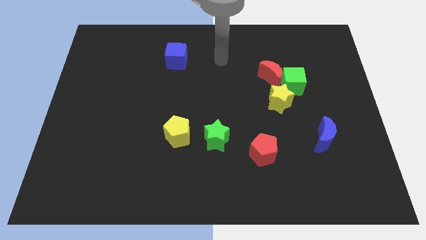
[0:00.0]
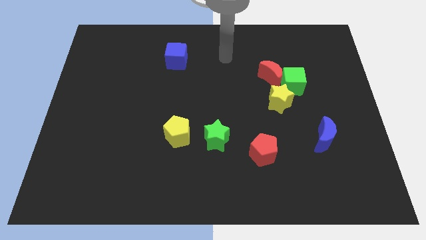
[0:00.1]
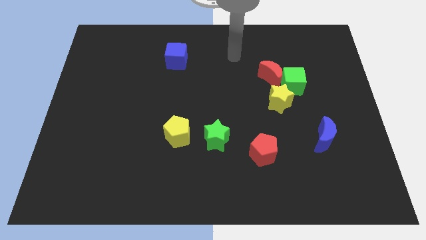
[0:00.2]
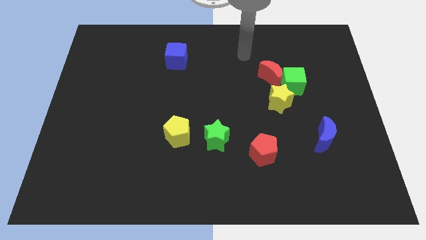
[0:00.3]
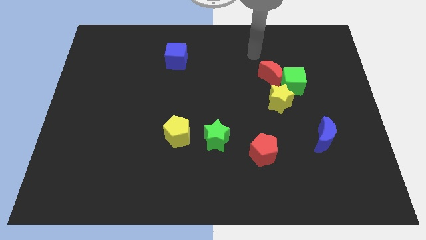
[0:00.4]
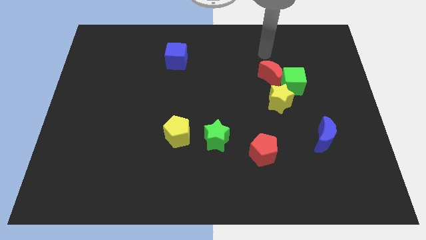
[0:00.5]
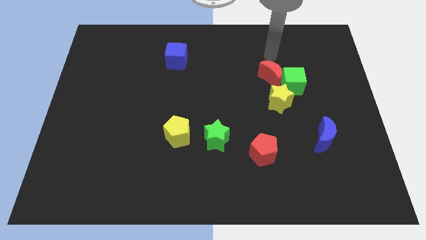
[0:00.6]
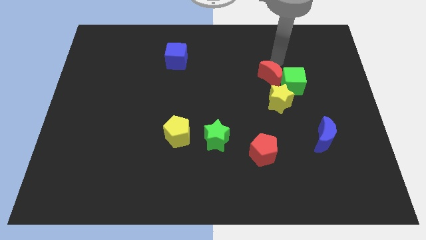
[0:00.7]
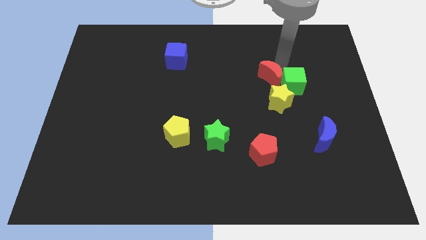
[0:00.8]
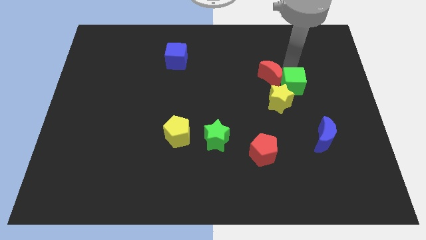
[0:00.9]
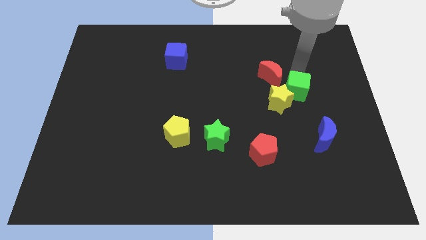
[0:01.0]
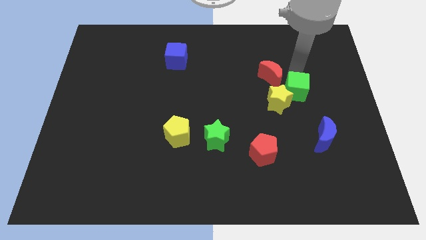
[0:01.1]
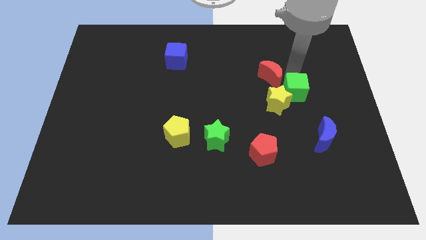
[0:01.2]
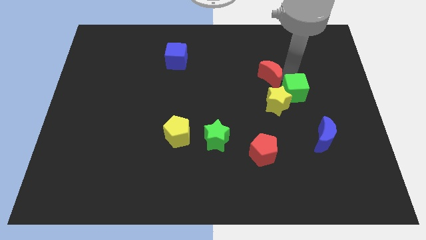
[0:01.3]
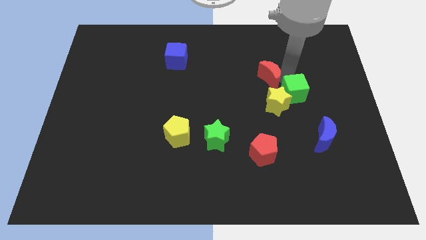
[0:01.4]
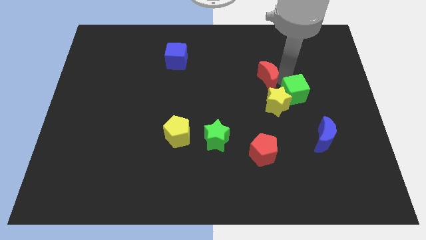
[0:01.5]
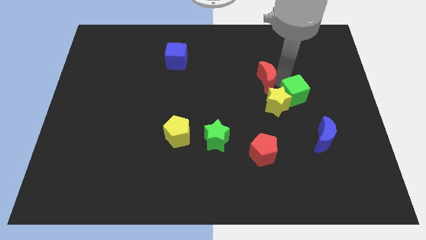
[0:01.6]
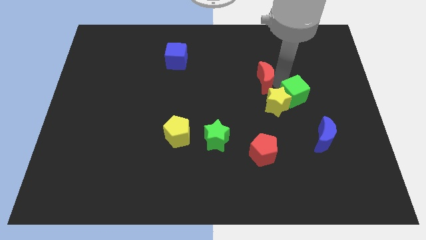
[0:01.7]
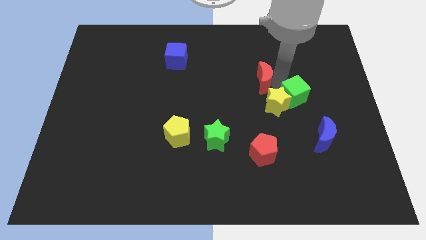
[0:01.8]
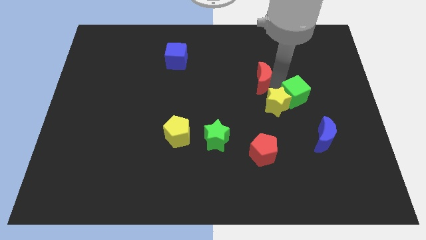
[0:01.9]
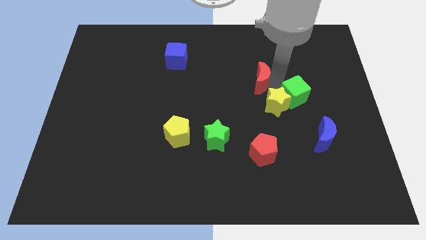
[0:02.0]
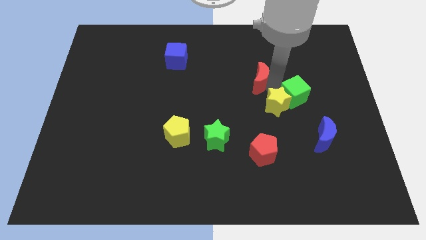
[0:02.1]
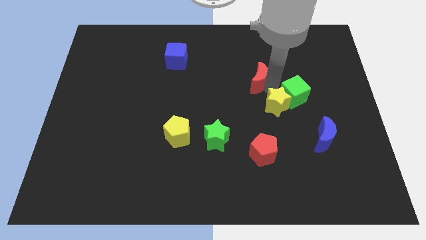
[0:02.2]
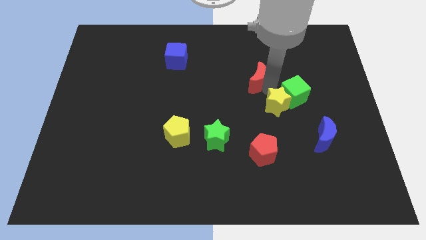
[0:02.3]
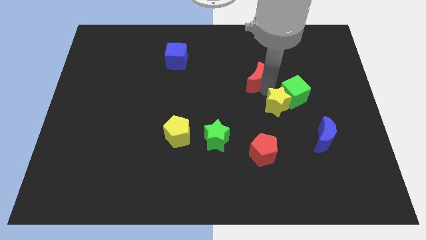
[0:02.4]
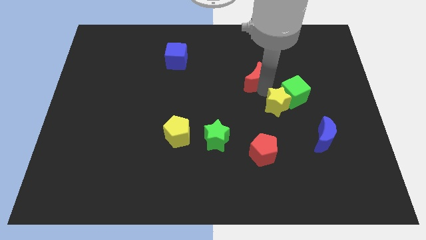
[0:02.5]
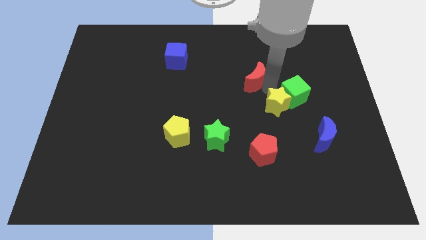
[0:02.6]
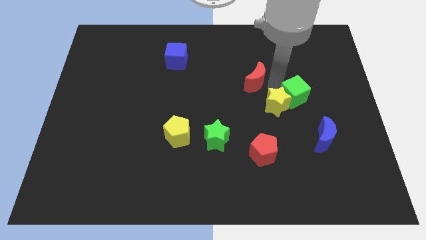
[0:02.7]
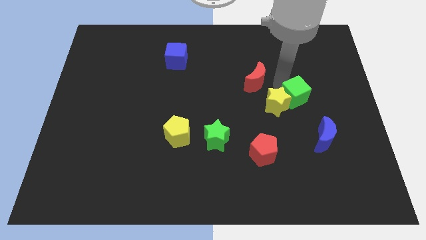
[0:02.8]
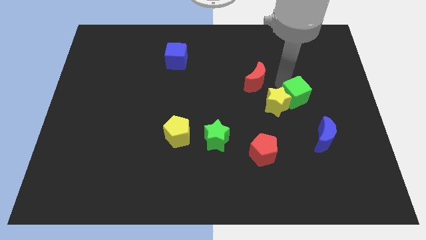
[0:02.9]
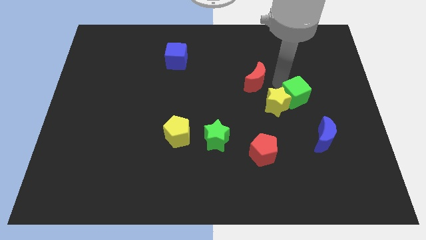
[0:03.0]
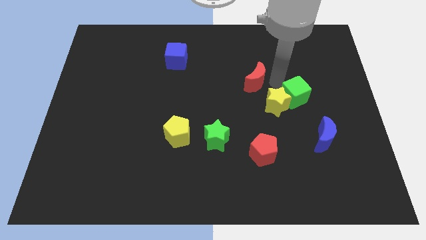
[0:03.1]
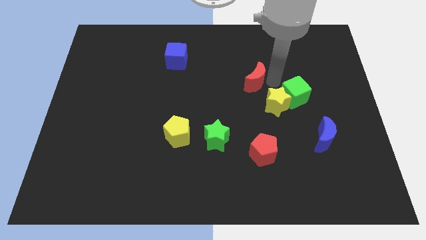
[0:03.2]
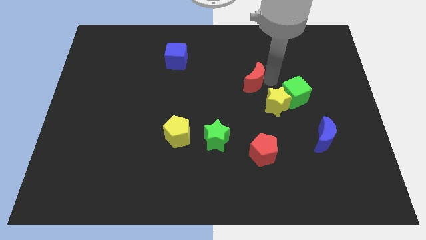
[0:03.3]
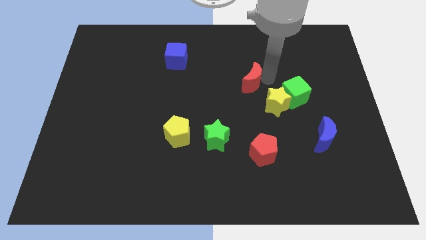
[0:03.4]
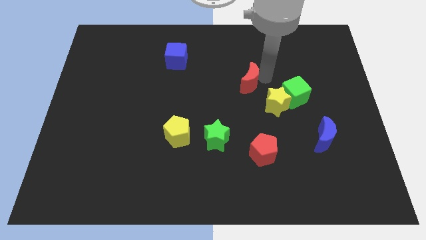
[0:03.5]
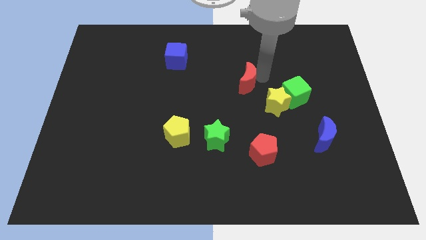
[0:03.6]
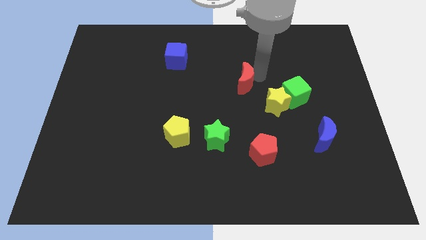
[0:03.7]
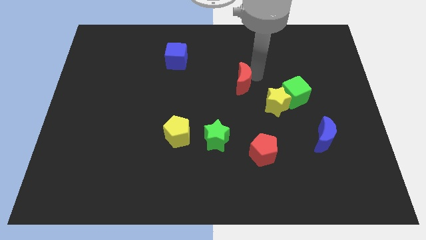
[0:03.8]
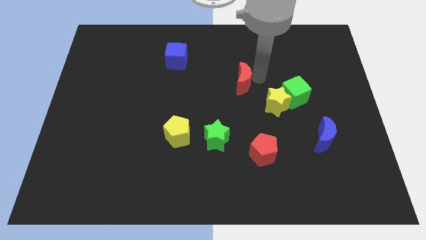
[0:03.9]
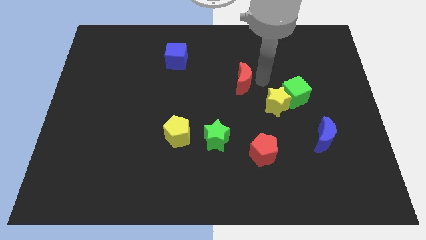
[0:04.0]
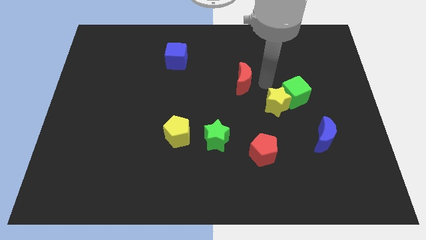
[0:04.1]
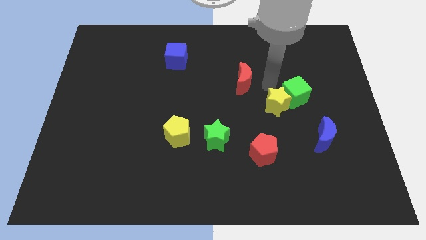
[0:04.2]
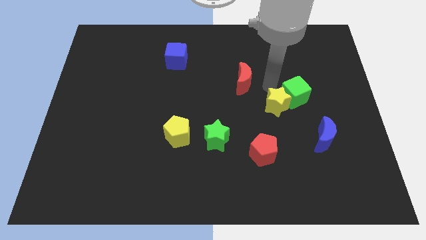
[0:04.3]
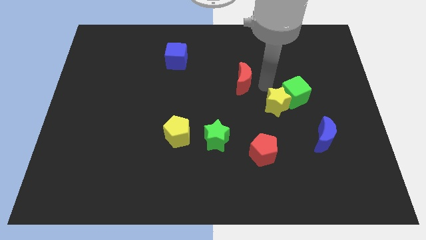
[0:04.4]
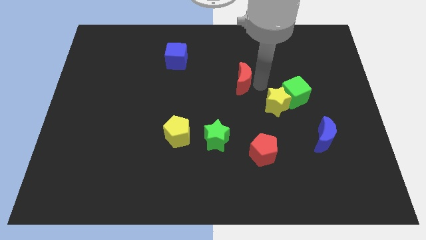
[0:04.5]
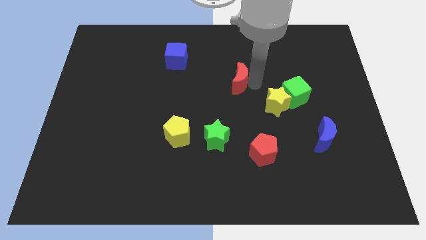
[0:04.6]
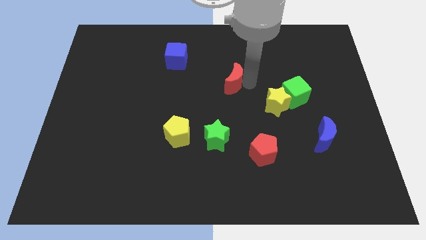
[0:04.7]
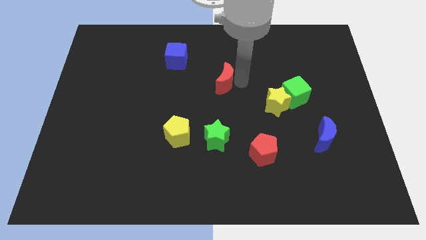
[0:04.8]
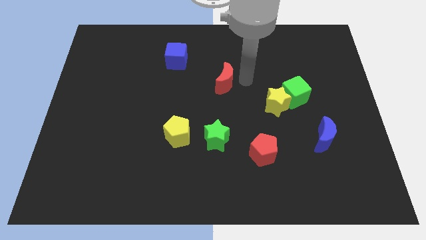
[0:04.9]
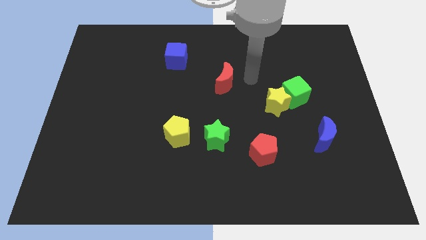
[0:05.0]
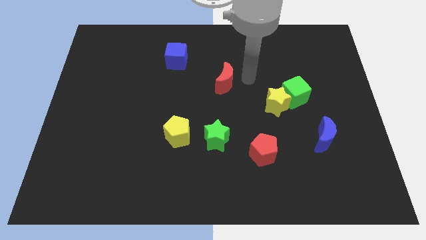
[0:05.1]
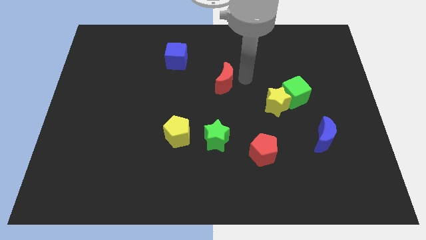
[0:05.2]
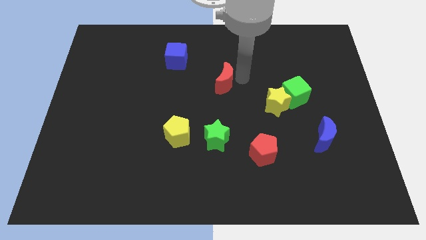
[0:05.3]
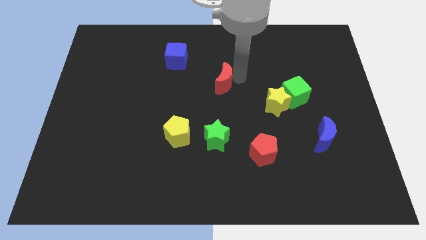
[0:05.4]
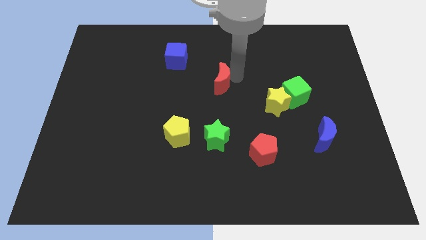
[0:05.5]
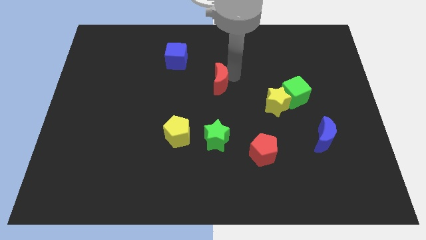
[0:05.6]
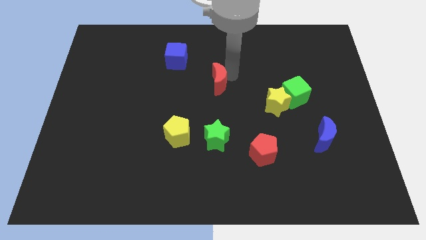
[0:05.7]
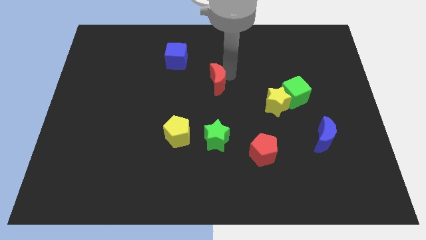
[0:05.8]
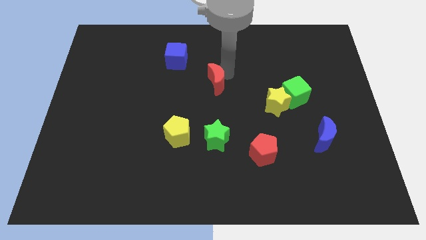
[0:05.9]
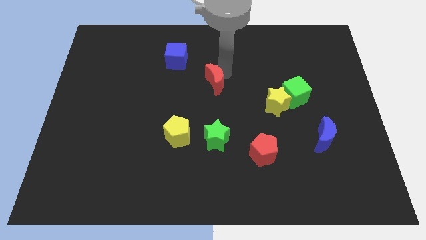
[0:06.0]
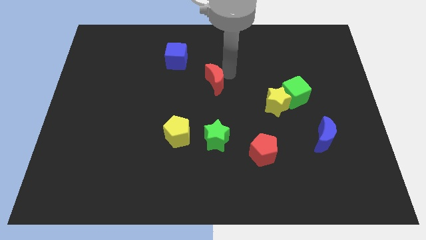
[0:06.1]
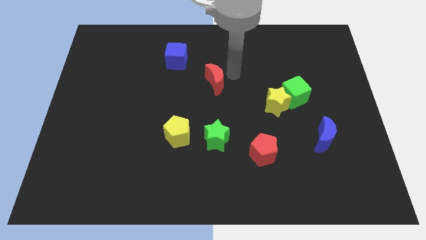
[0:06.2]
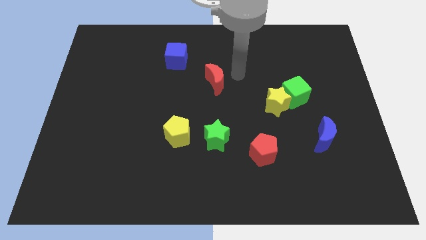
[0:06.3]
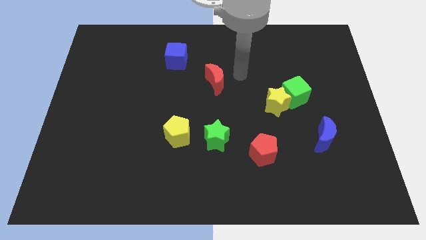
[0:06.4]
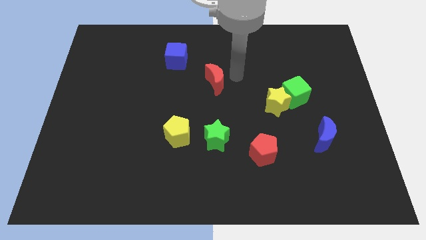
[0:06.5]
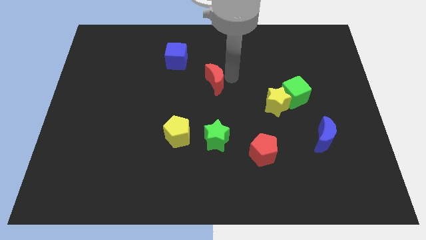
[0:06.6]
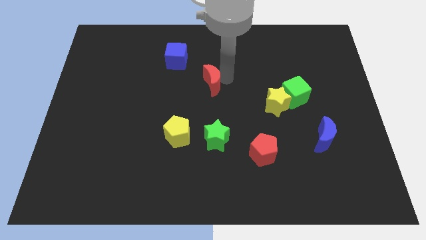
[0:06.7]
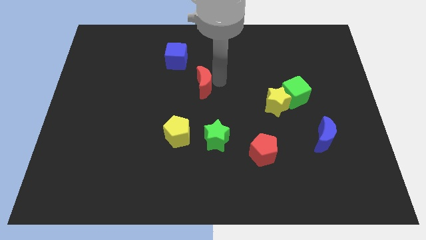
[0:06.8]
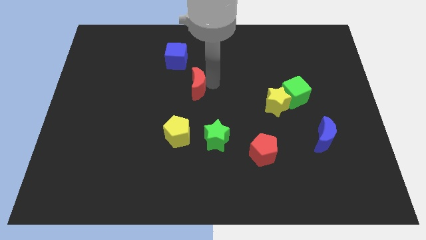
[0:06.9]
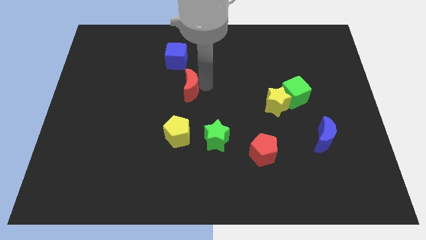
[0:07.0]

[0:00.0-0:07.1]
move the red moon below the blue cube

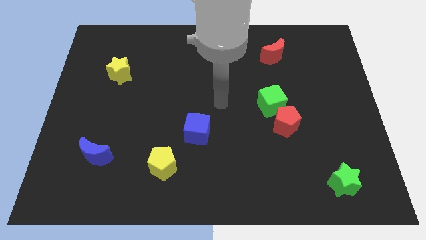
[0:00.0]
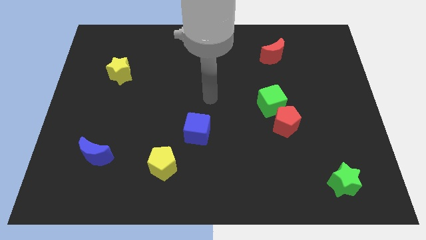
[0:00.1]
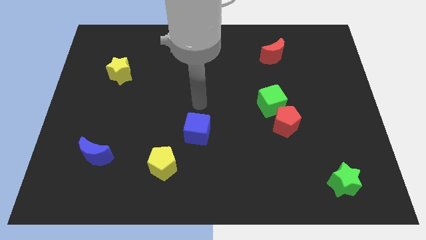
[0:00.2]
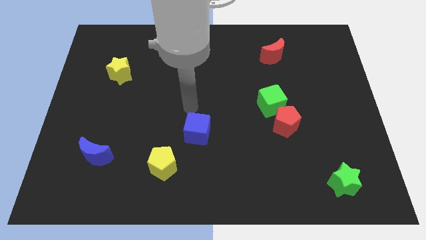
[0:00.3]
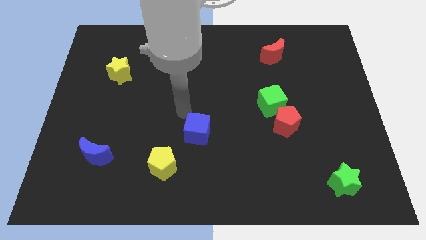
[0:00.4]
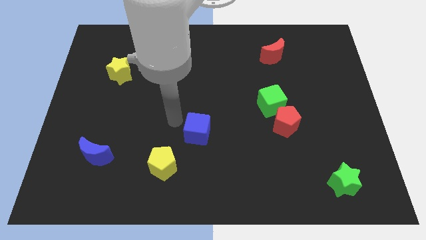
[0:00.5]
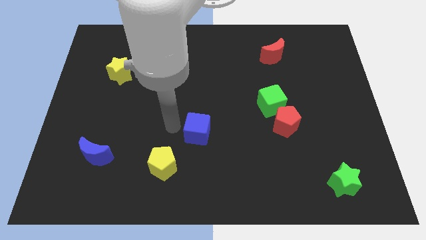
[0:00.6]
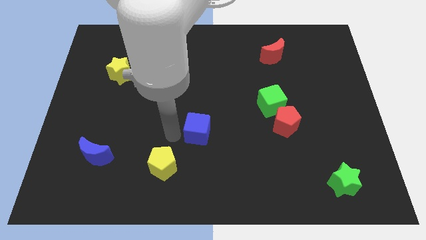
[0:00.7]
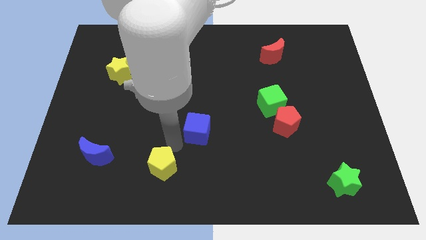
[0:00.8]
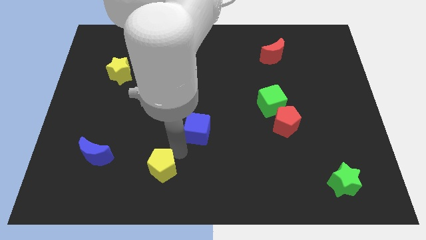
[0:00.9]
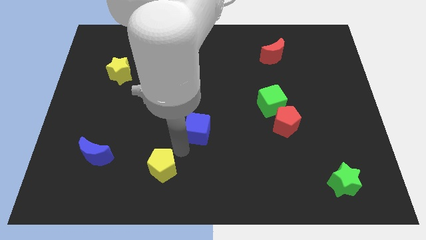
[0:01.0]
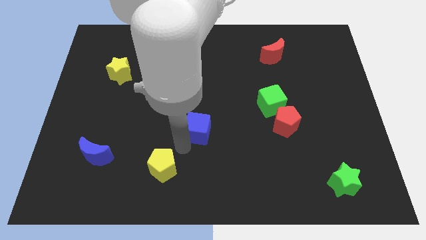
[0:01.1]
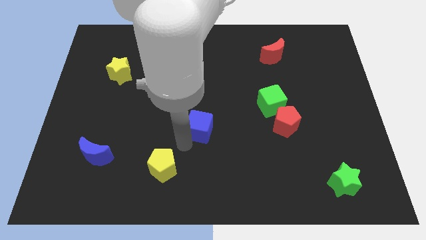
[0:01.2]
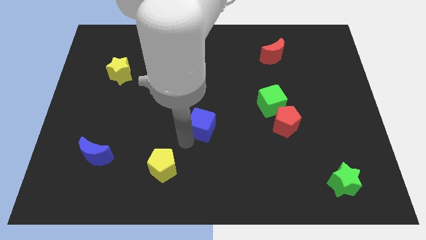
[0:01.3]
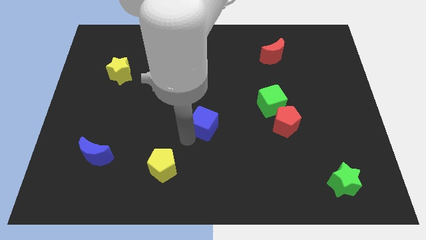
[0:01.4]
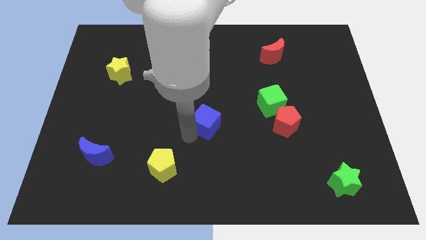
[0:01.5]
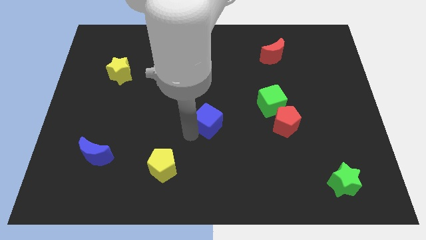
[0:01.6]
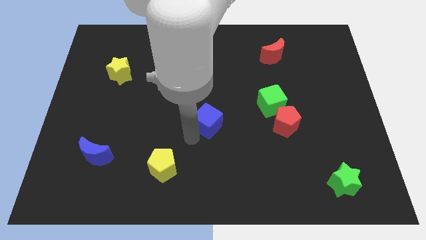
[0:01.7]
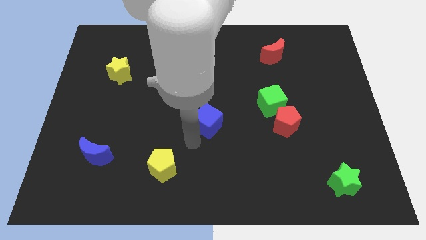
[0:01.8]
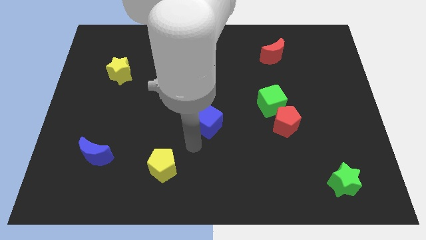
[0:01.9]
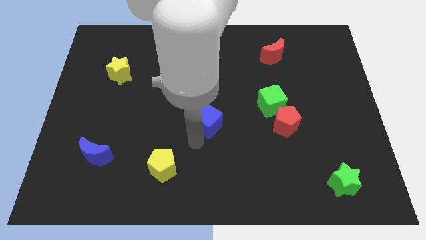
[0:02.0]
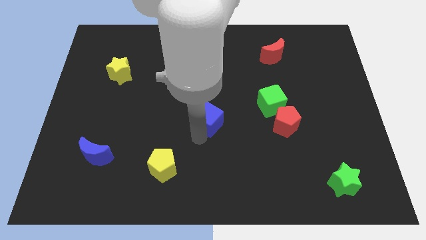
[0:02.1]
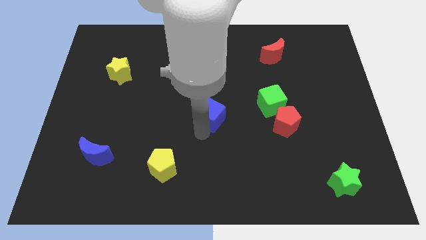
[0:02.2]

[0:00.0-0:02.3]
put the blue cube left of the green cube
